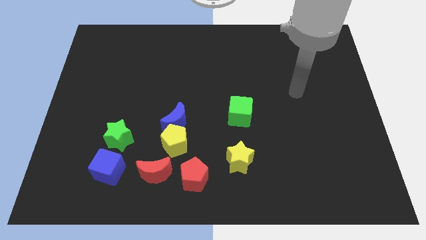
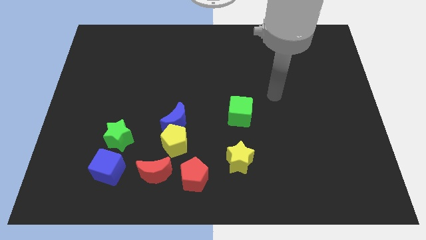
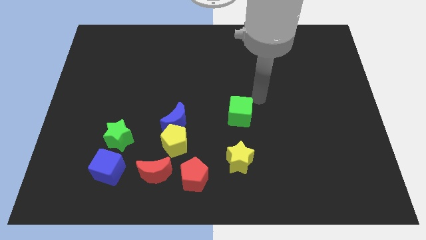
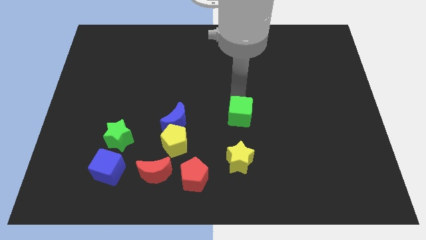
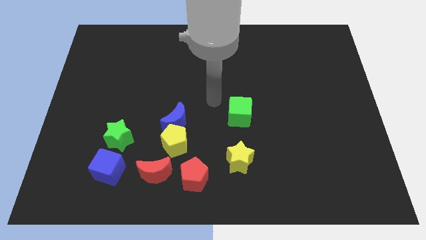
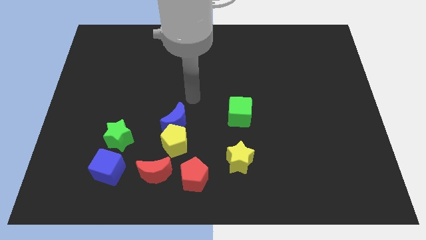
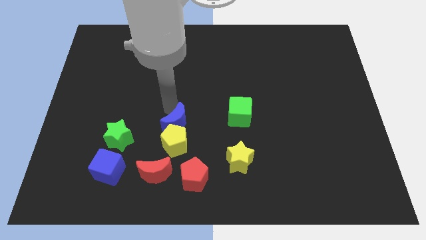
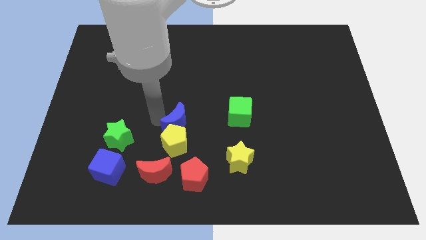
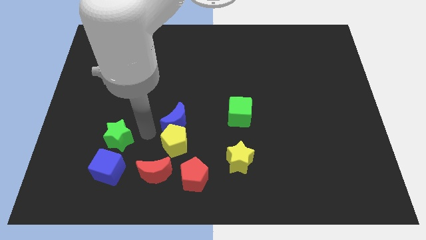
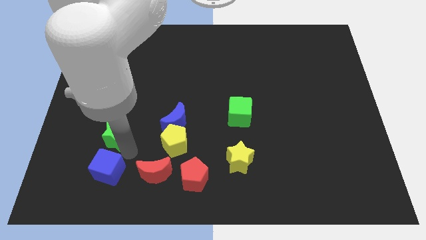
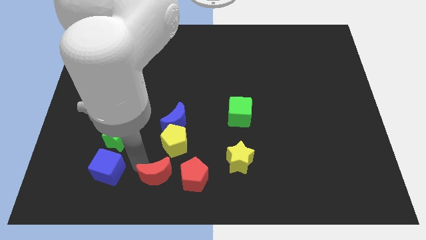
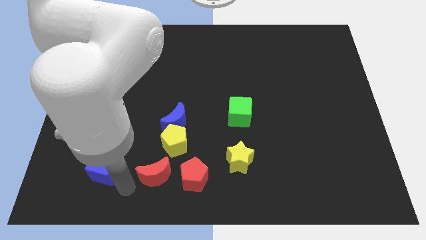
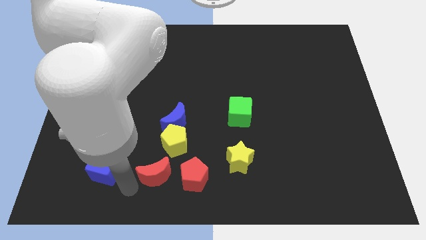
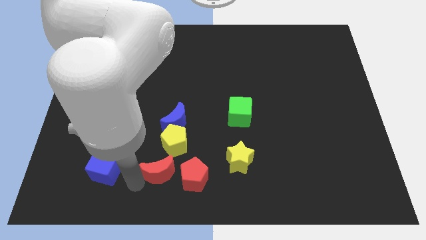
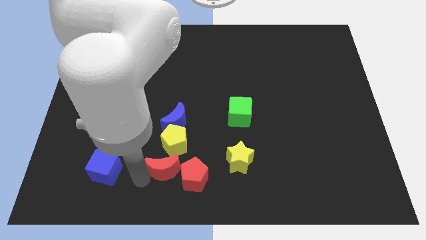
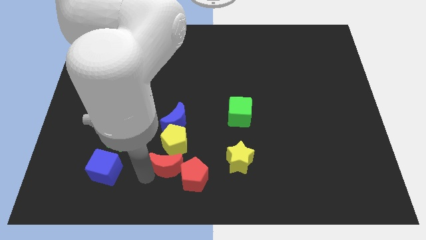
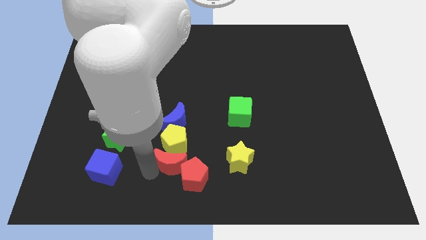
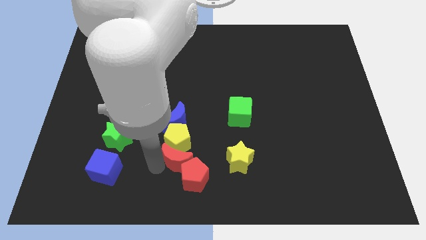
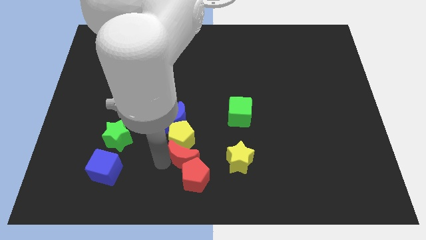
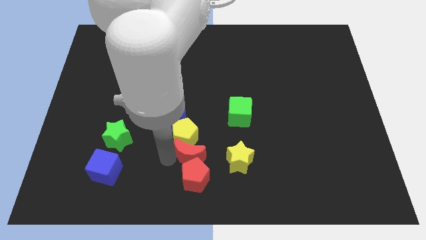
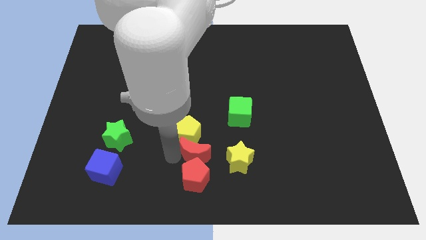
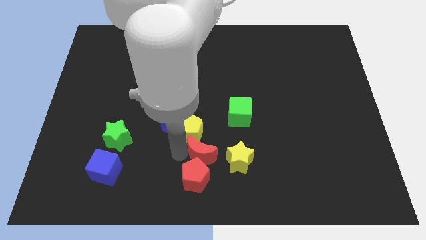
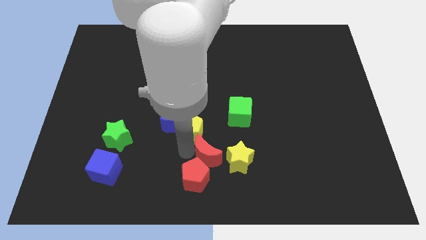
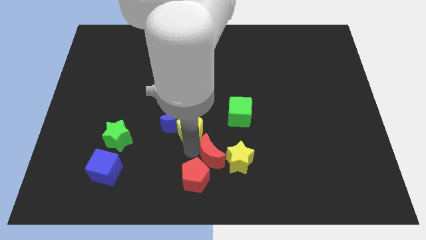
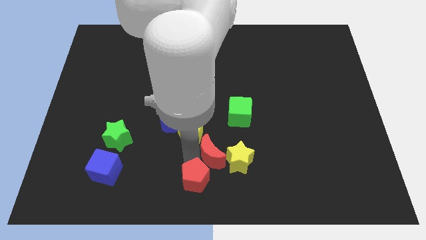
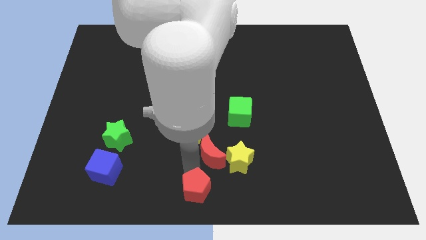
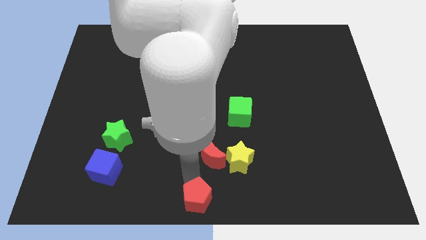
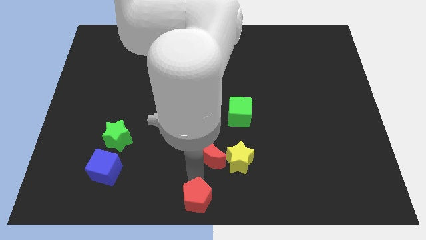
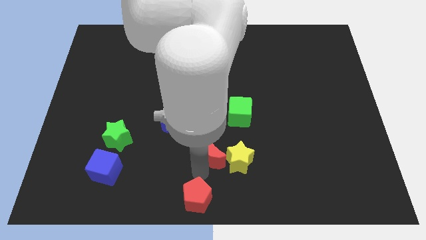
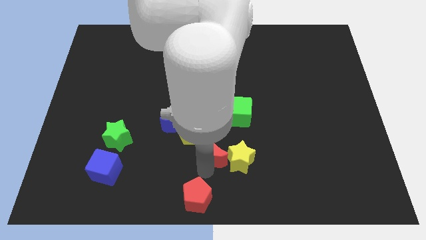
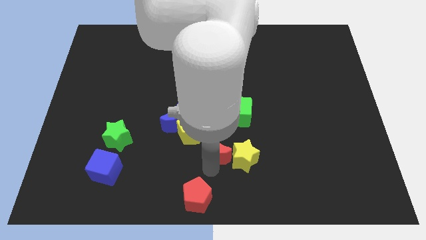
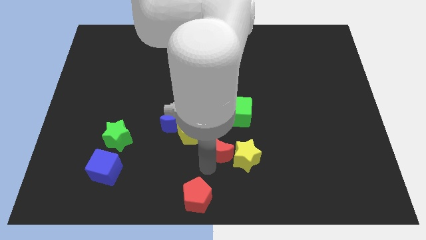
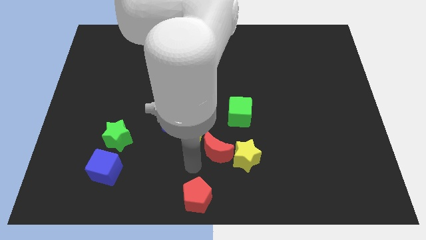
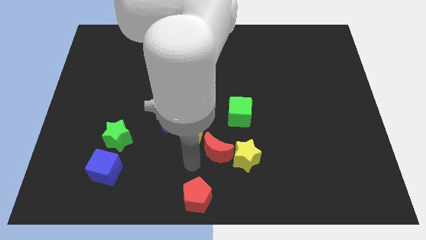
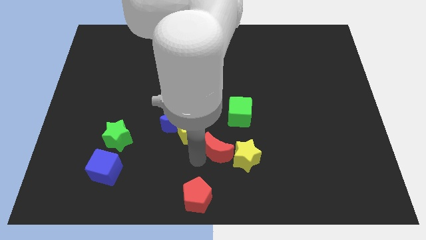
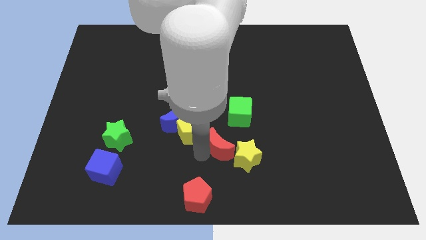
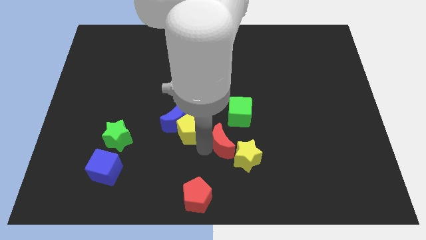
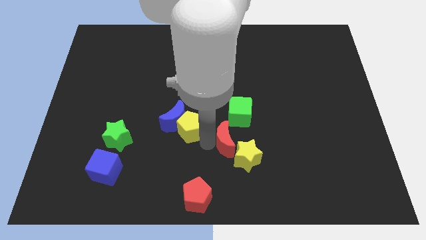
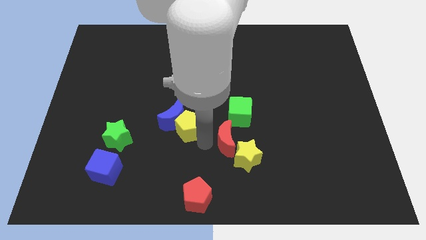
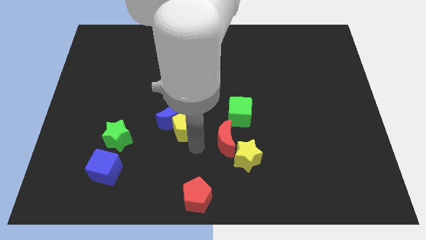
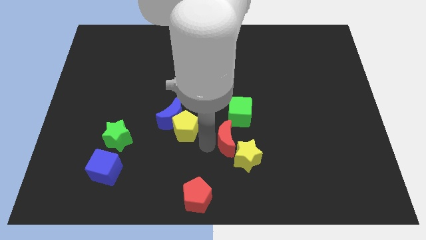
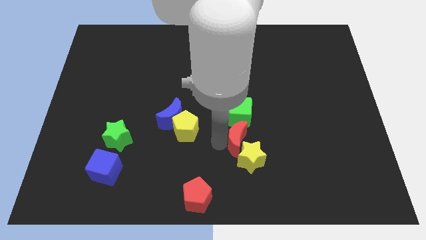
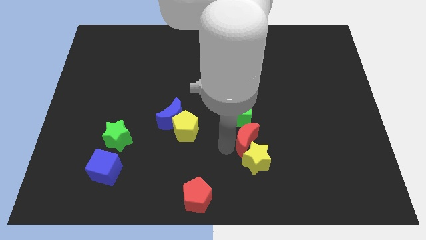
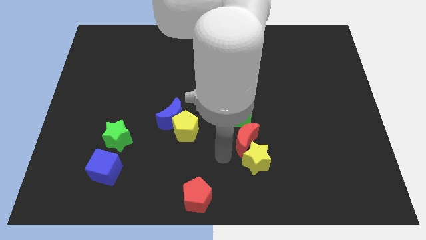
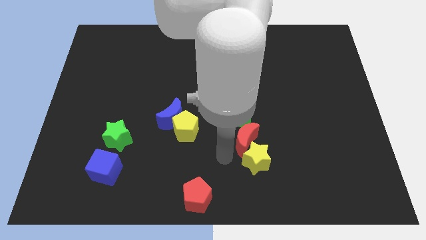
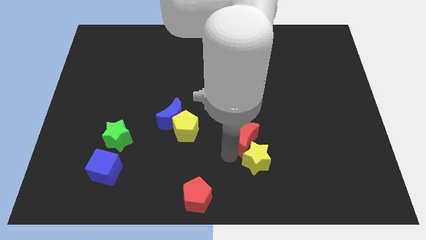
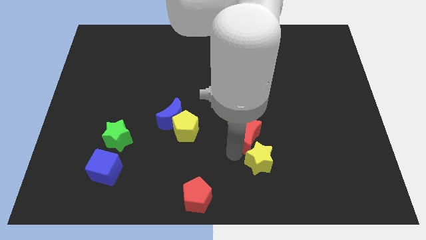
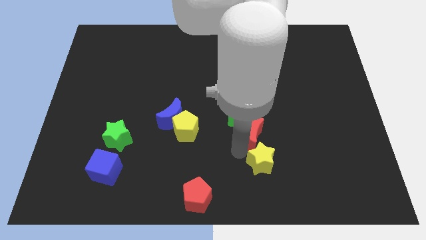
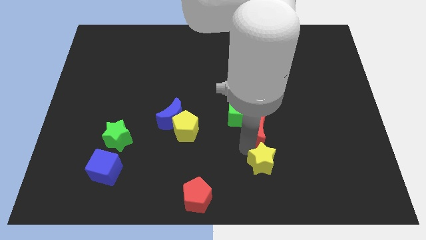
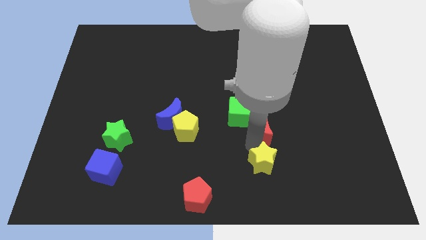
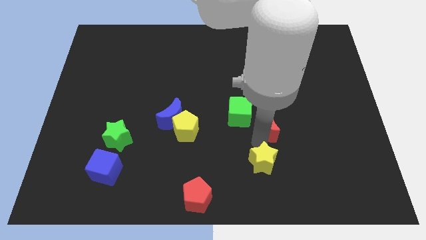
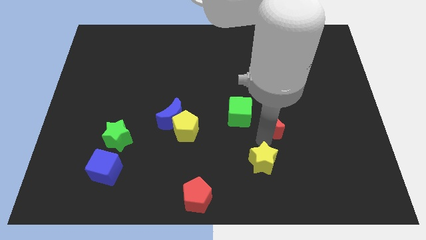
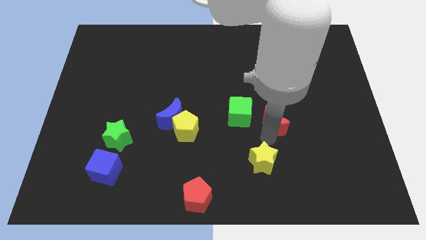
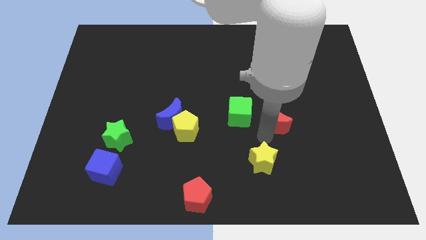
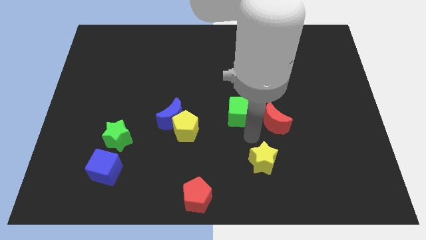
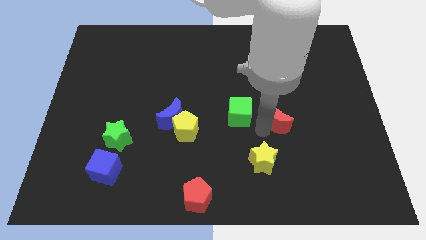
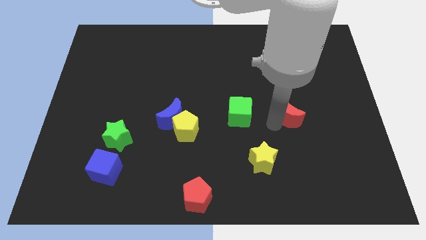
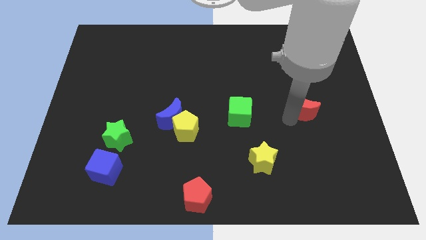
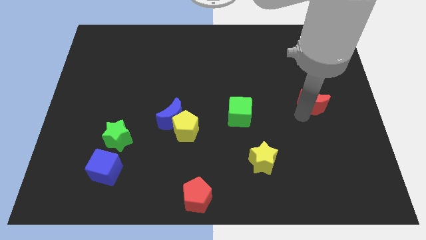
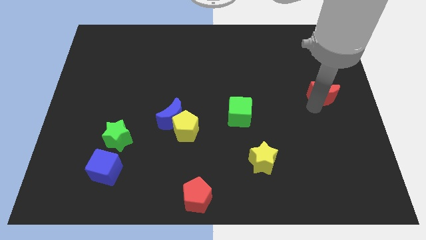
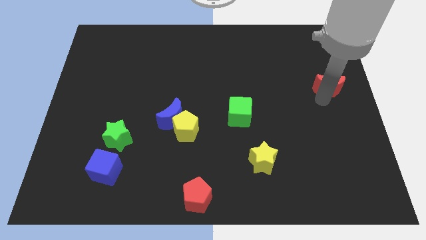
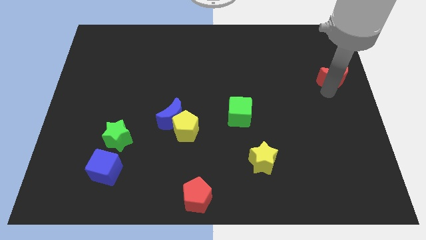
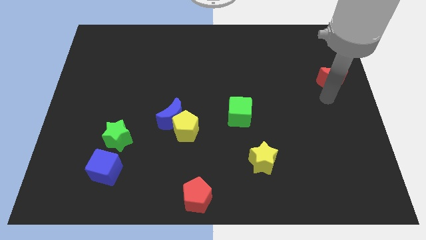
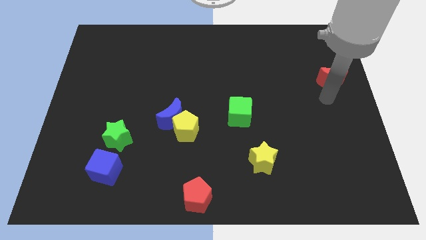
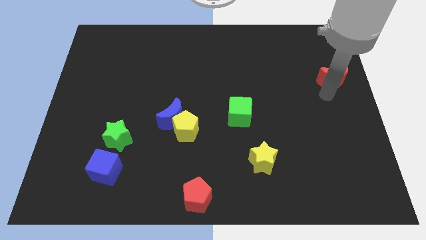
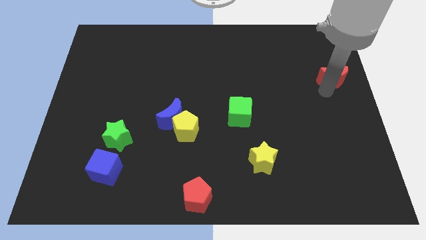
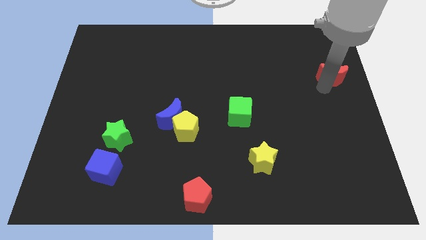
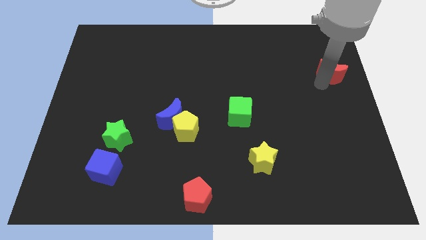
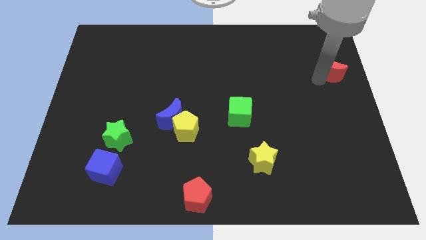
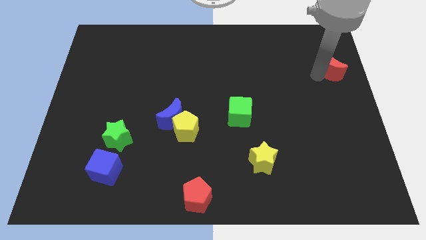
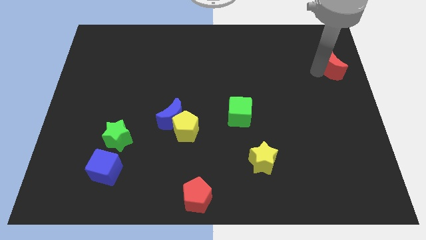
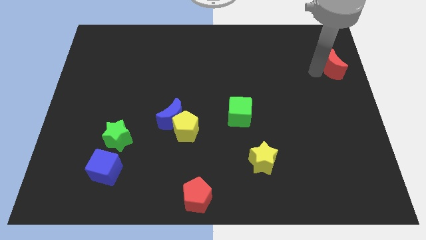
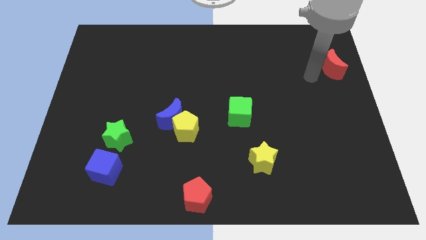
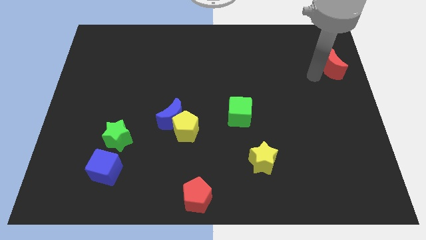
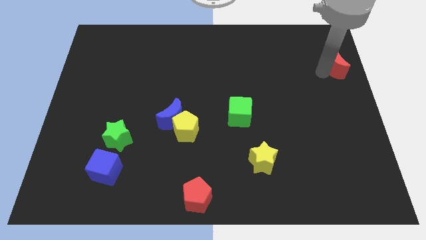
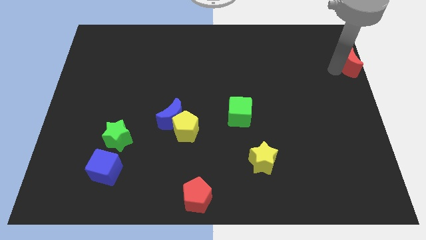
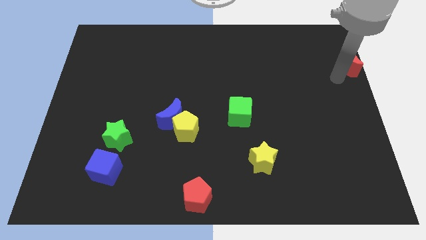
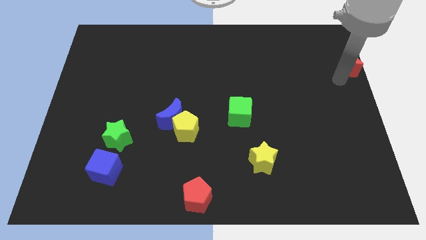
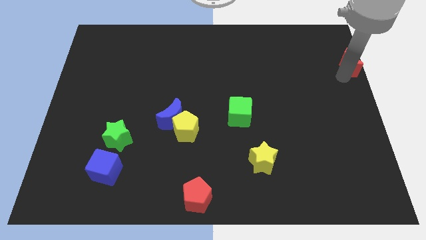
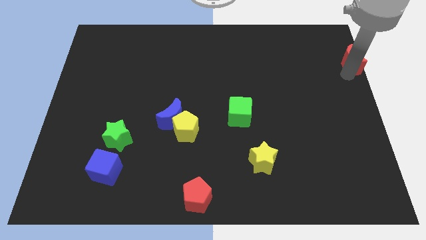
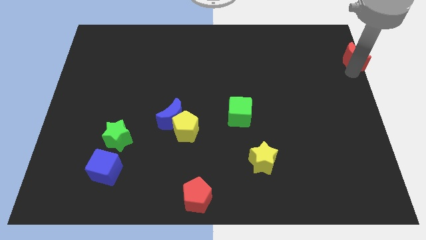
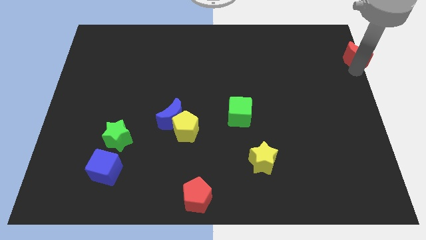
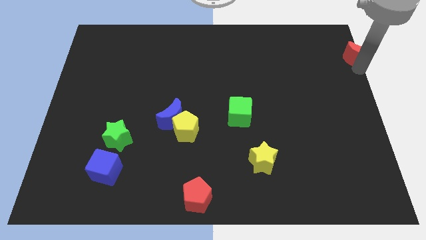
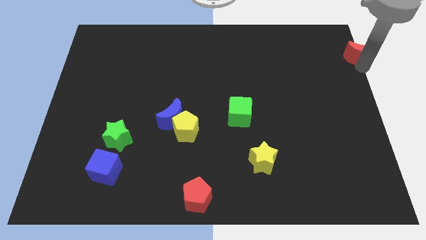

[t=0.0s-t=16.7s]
slide the red moon to the top right corner
